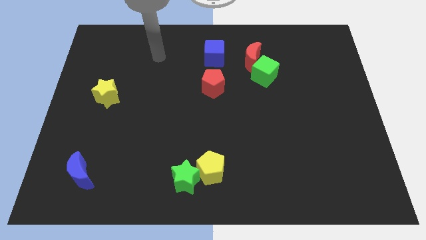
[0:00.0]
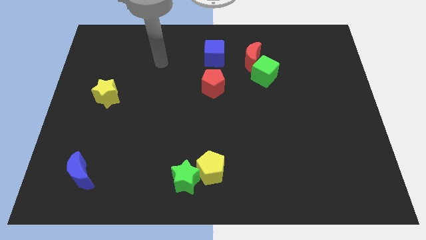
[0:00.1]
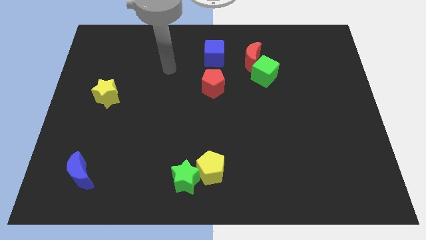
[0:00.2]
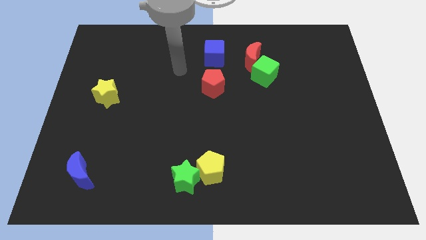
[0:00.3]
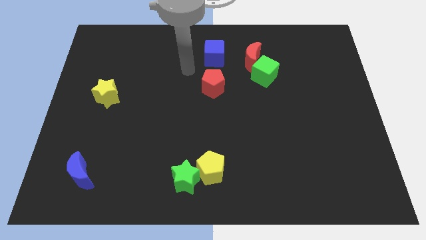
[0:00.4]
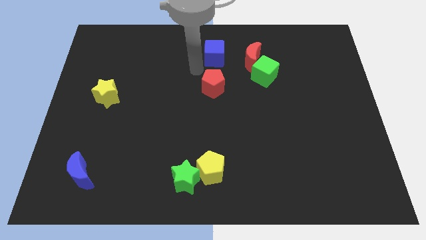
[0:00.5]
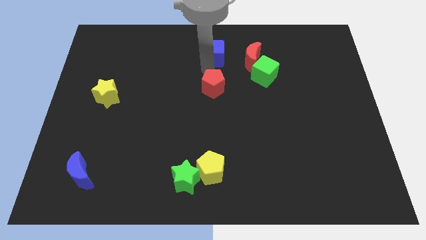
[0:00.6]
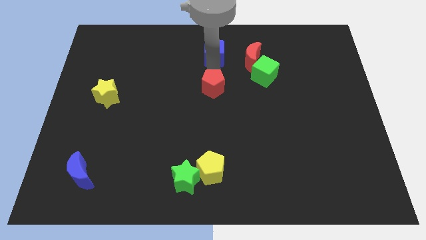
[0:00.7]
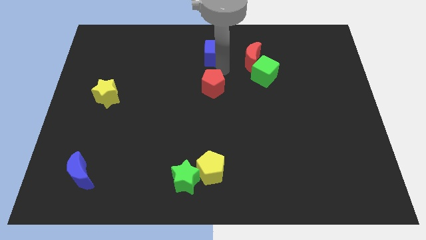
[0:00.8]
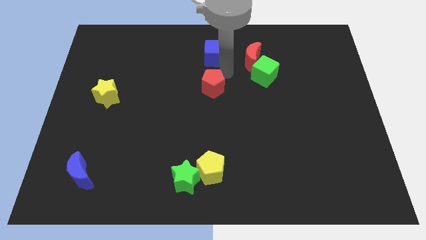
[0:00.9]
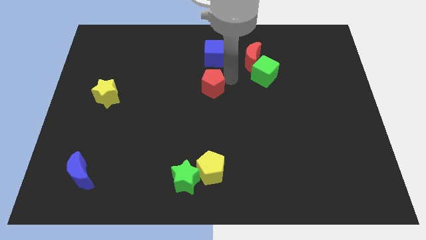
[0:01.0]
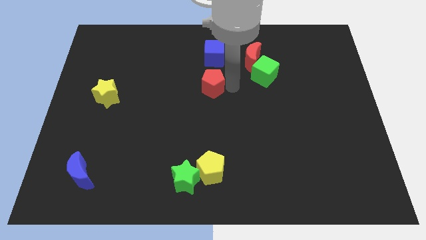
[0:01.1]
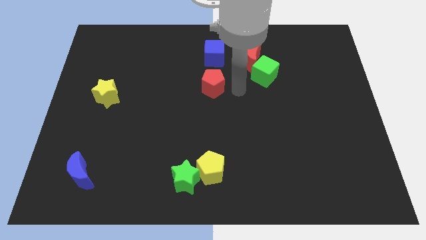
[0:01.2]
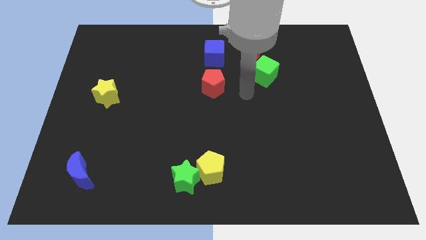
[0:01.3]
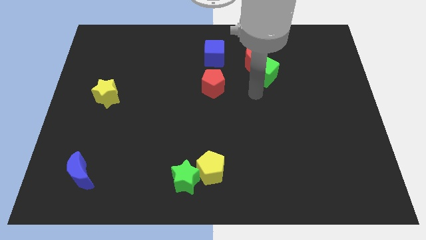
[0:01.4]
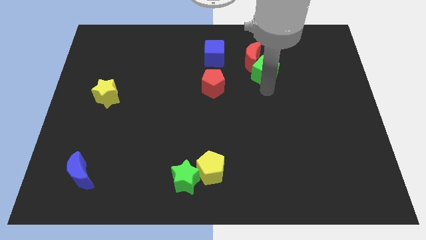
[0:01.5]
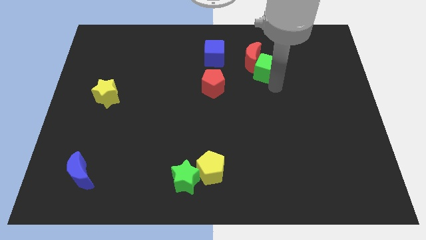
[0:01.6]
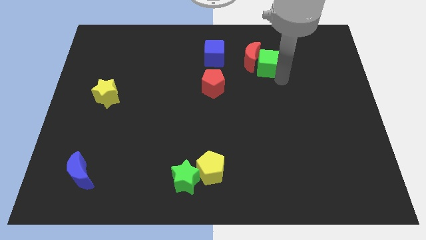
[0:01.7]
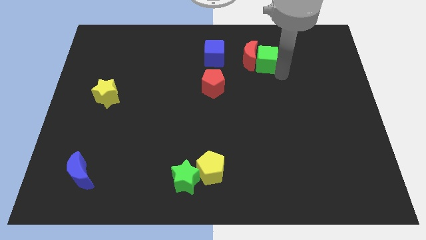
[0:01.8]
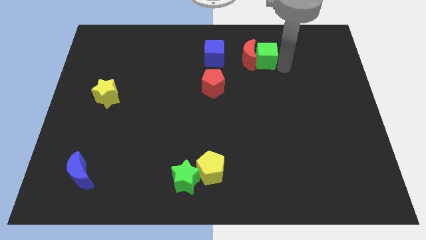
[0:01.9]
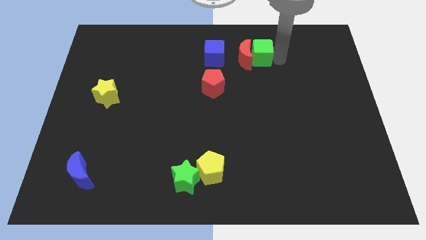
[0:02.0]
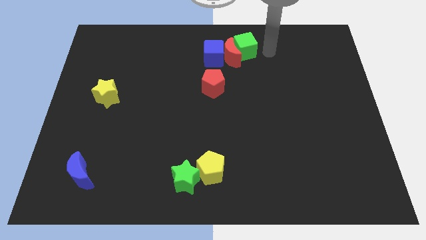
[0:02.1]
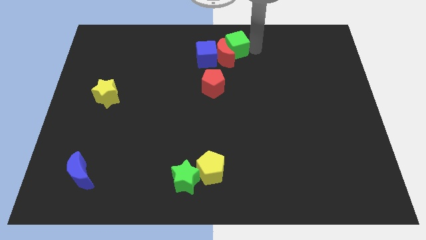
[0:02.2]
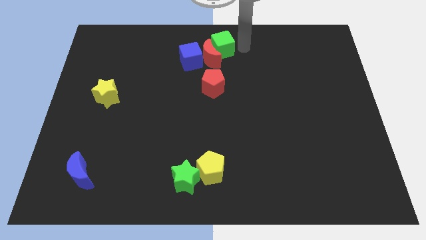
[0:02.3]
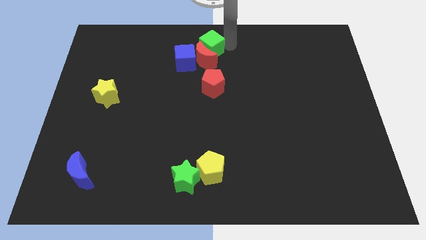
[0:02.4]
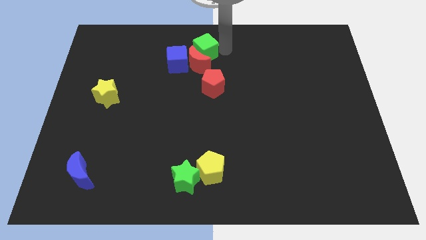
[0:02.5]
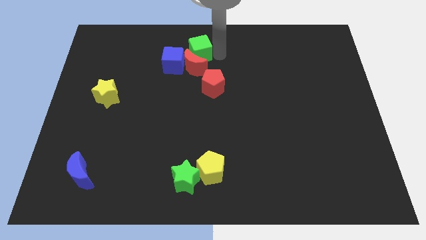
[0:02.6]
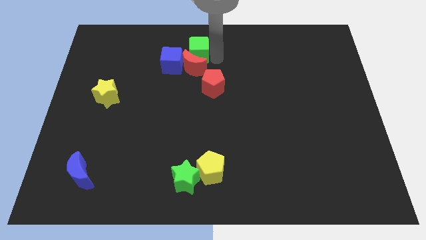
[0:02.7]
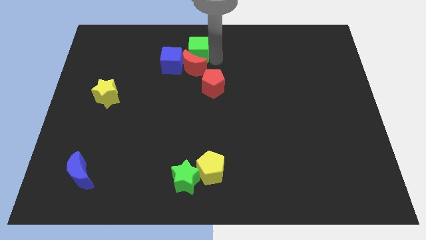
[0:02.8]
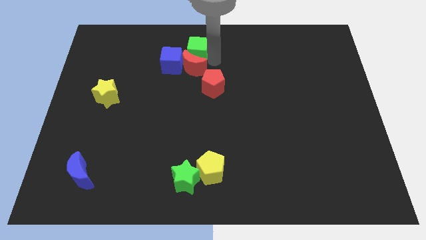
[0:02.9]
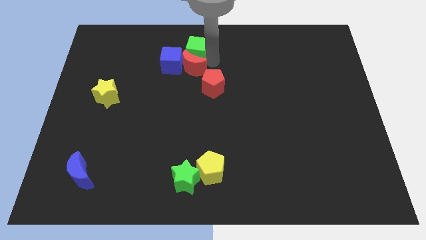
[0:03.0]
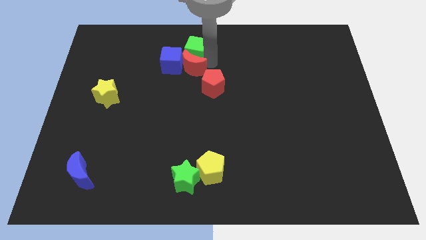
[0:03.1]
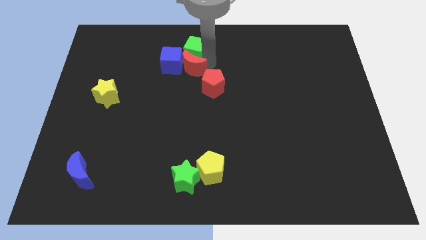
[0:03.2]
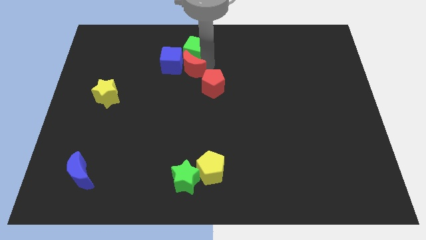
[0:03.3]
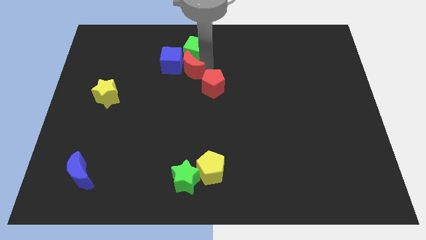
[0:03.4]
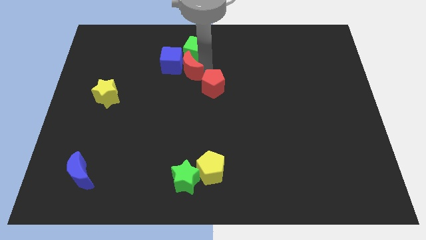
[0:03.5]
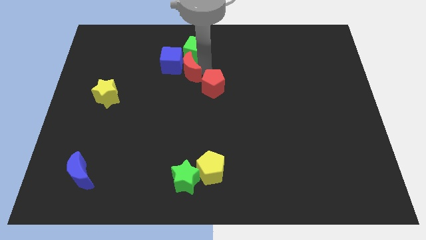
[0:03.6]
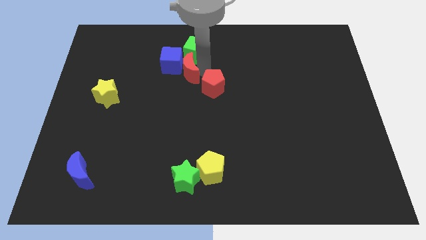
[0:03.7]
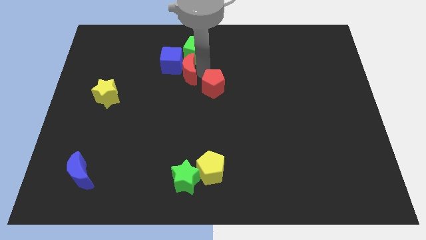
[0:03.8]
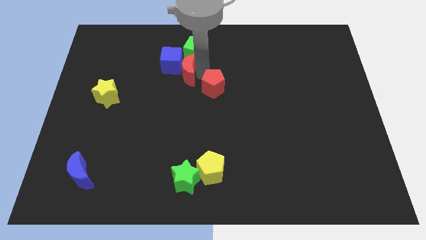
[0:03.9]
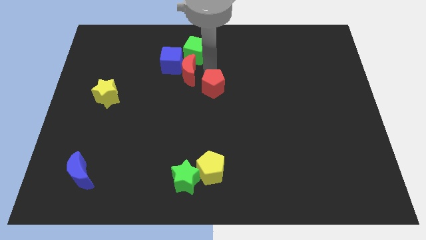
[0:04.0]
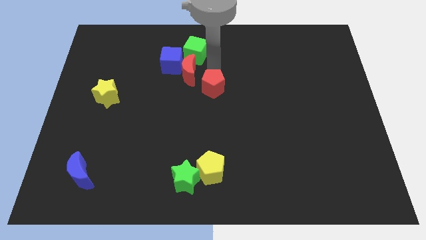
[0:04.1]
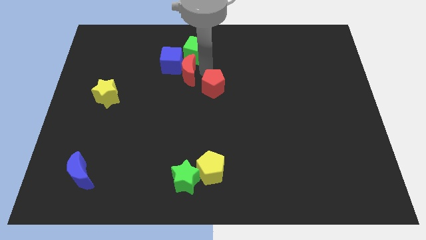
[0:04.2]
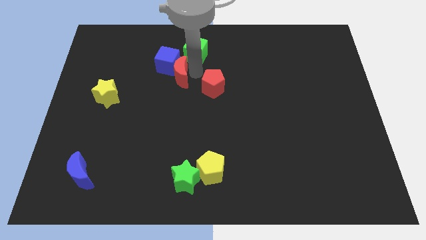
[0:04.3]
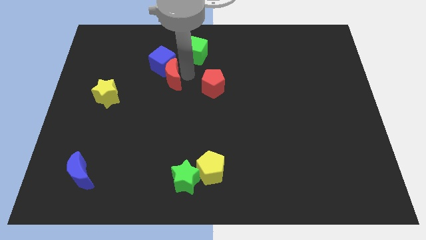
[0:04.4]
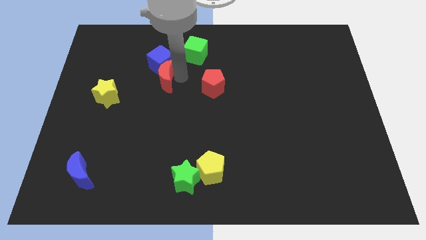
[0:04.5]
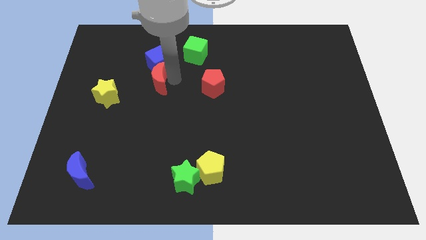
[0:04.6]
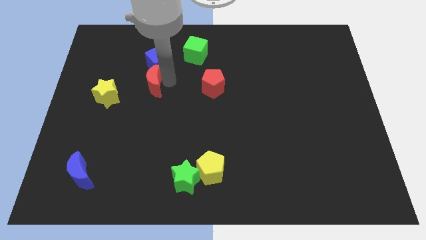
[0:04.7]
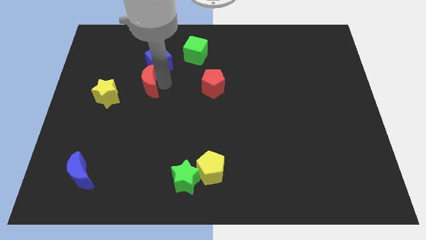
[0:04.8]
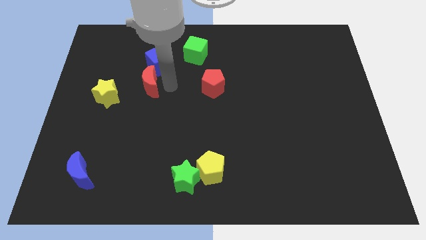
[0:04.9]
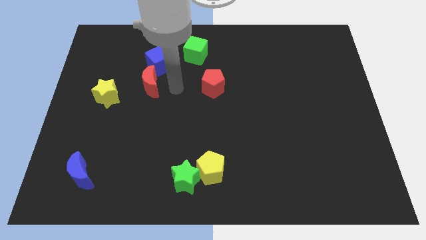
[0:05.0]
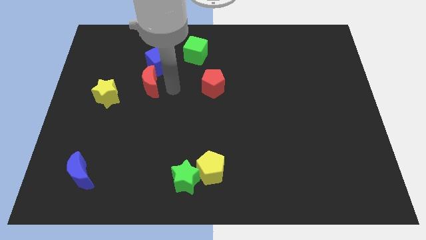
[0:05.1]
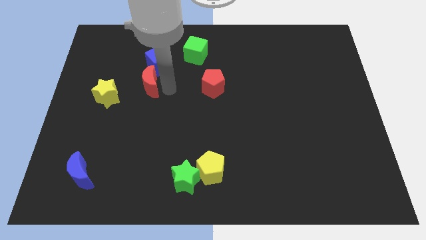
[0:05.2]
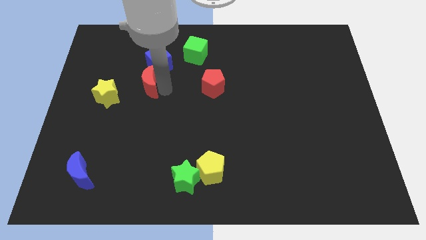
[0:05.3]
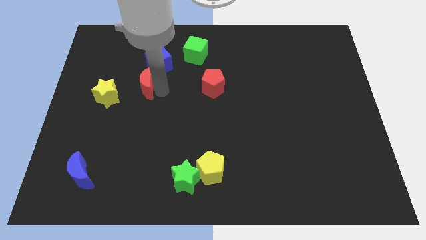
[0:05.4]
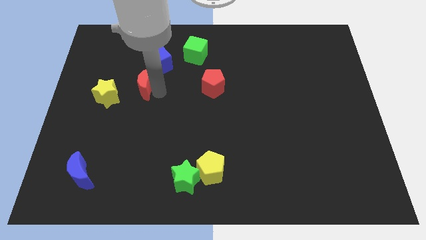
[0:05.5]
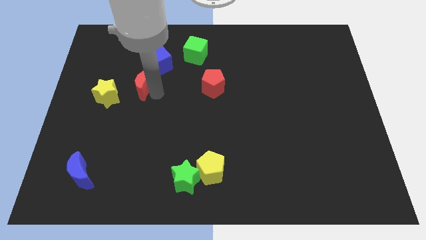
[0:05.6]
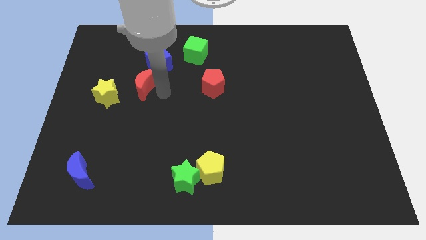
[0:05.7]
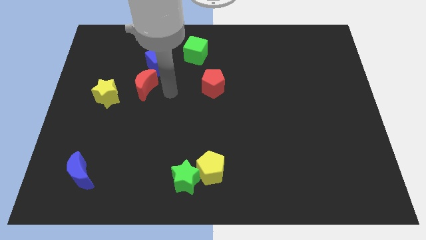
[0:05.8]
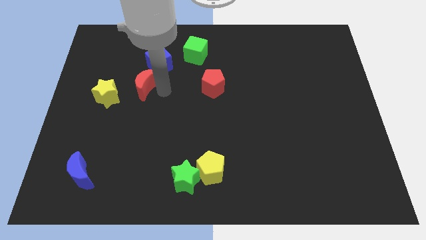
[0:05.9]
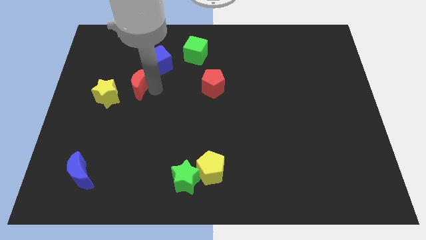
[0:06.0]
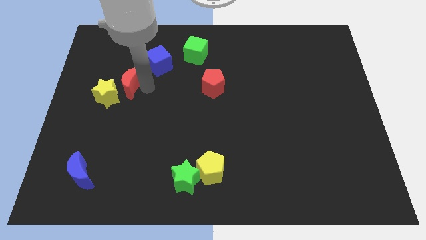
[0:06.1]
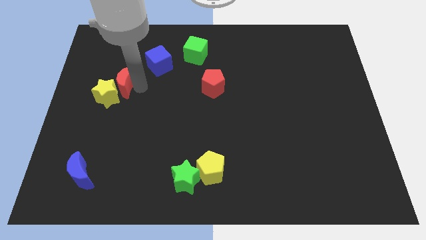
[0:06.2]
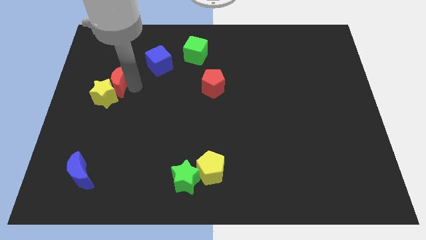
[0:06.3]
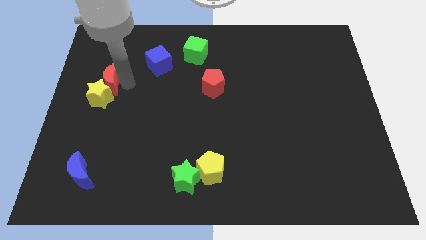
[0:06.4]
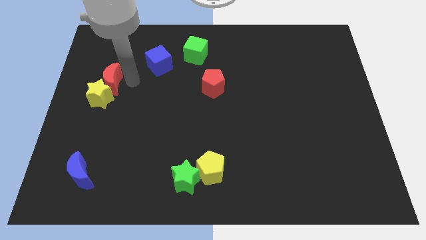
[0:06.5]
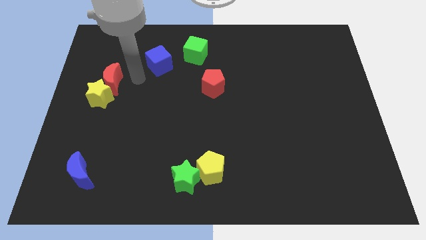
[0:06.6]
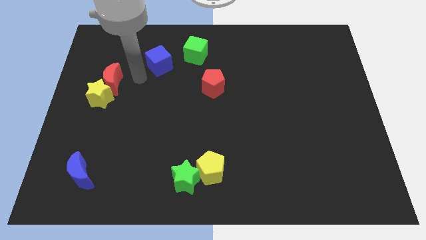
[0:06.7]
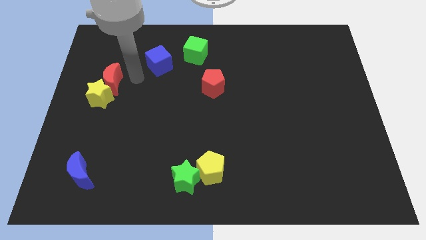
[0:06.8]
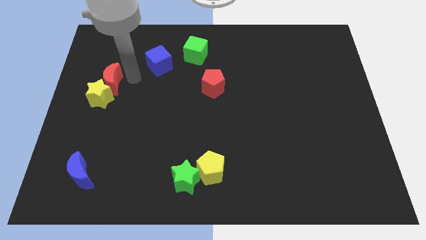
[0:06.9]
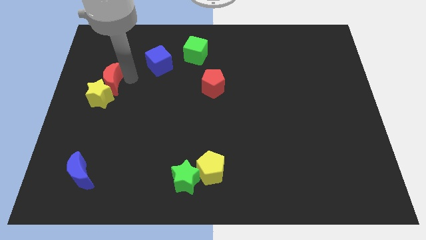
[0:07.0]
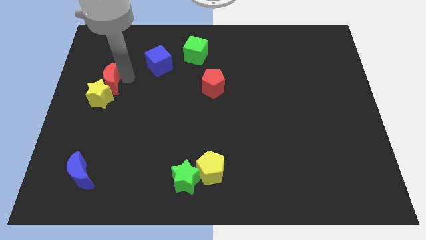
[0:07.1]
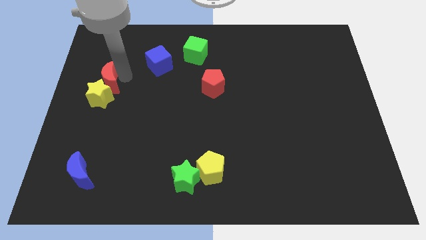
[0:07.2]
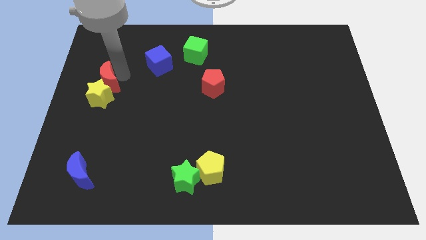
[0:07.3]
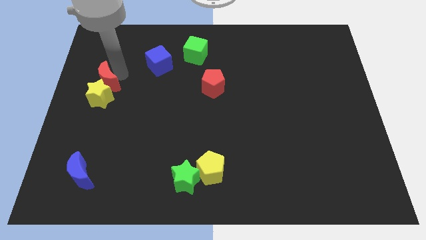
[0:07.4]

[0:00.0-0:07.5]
put the red moon to the center left
